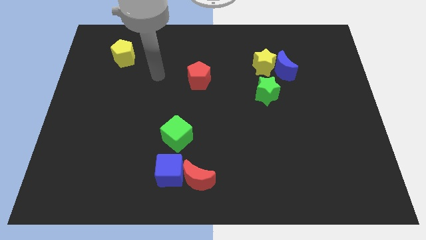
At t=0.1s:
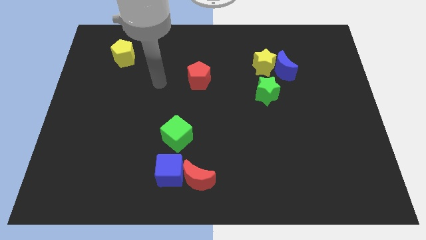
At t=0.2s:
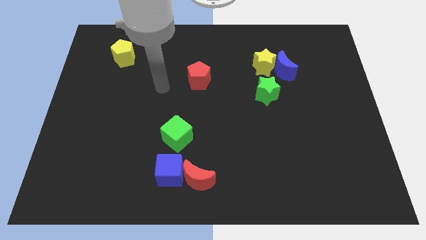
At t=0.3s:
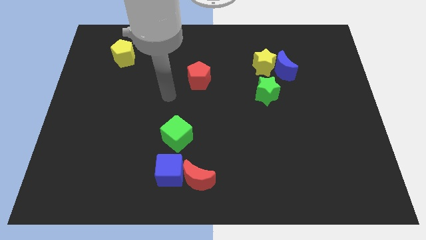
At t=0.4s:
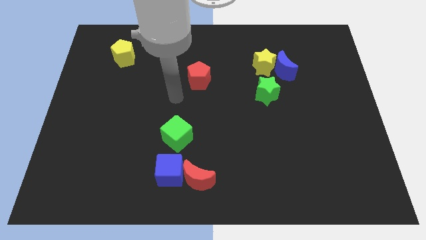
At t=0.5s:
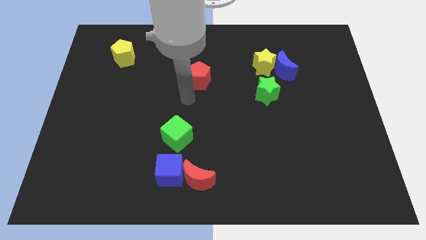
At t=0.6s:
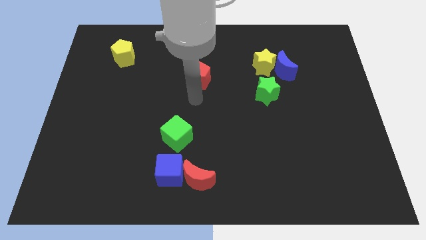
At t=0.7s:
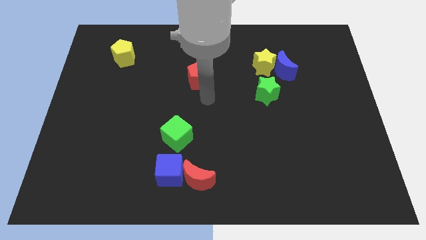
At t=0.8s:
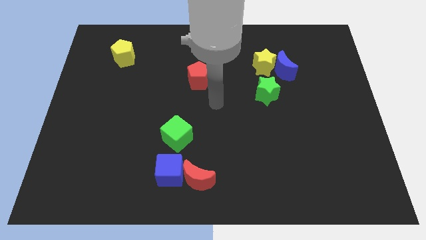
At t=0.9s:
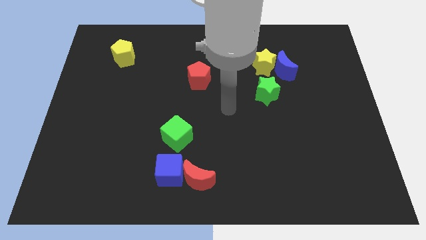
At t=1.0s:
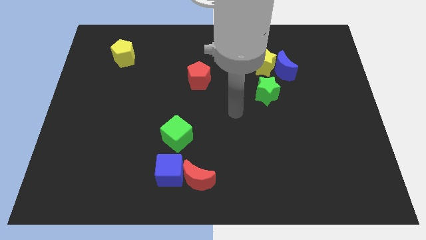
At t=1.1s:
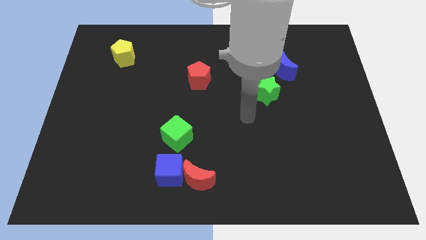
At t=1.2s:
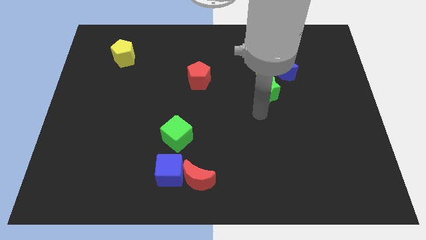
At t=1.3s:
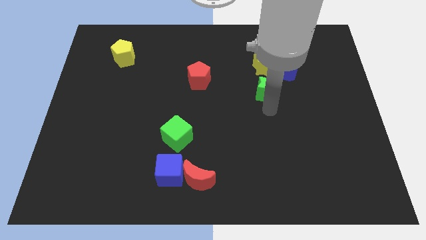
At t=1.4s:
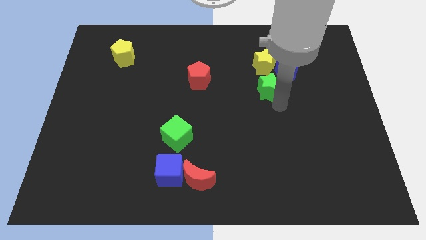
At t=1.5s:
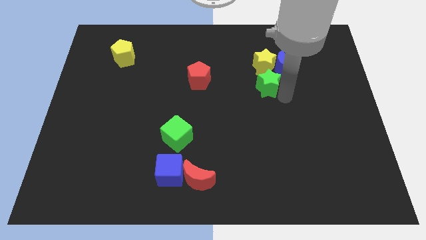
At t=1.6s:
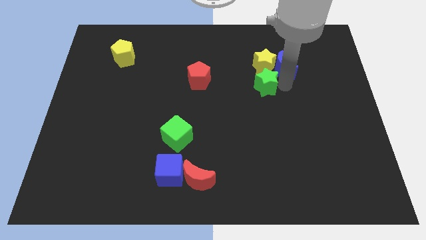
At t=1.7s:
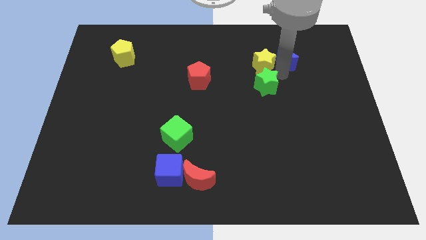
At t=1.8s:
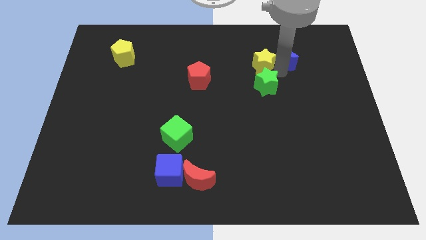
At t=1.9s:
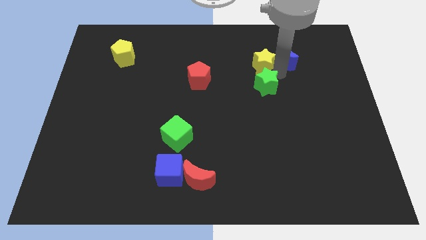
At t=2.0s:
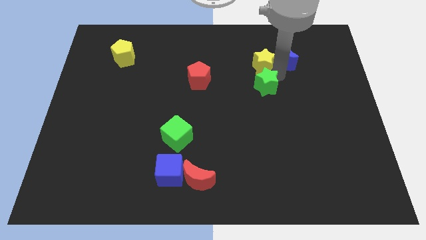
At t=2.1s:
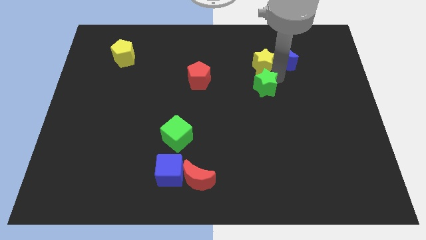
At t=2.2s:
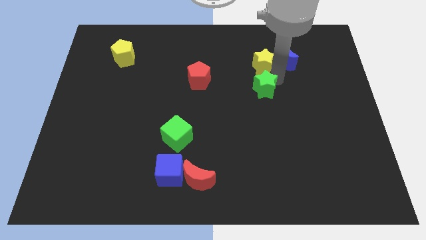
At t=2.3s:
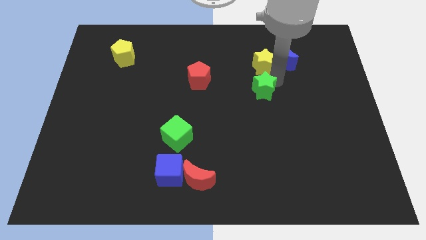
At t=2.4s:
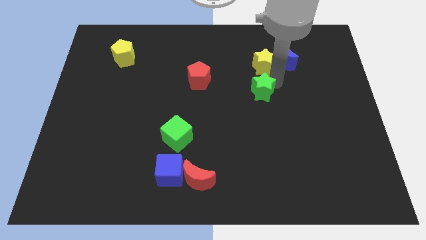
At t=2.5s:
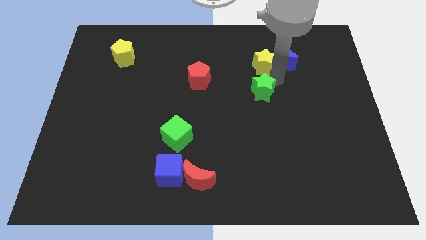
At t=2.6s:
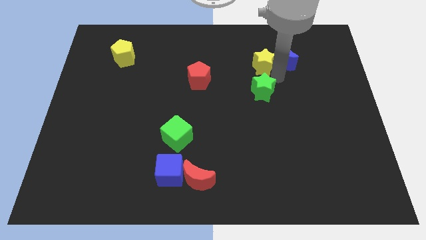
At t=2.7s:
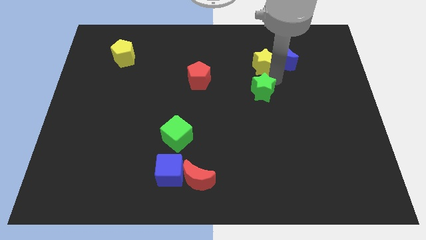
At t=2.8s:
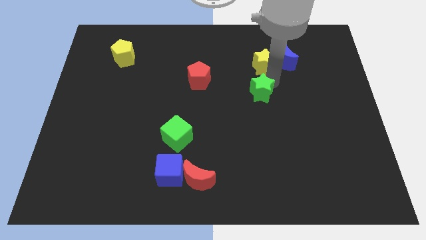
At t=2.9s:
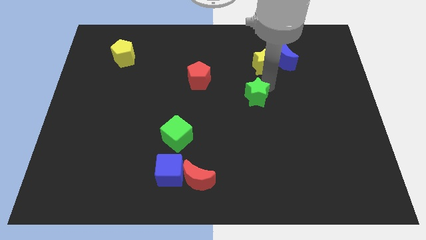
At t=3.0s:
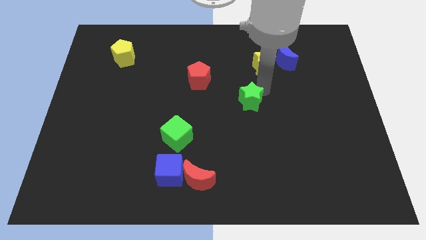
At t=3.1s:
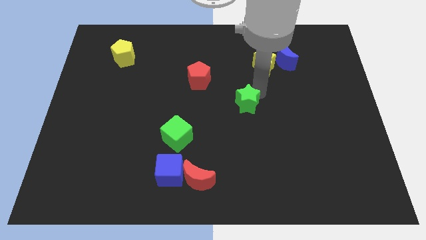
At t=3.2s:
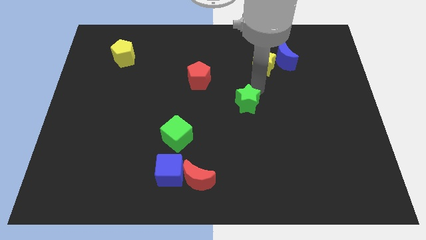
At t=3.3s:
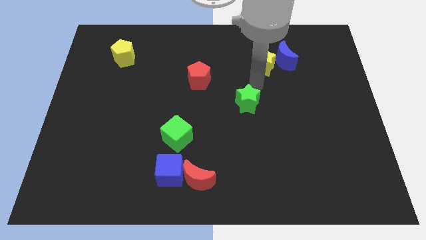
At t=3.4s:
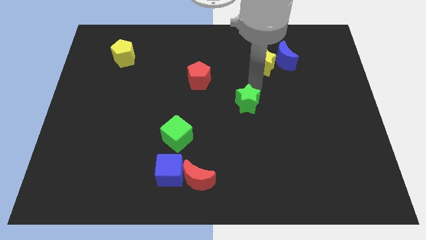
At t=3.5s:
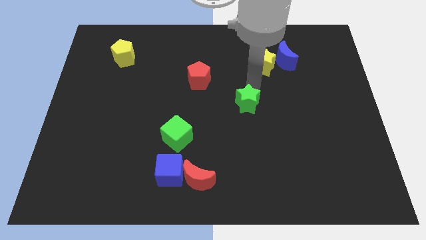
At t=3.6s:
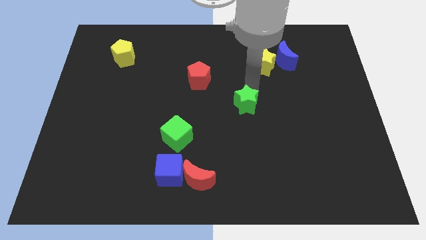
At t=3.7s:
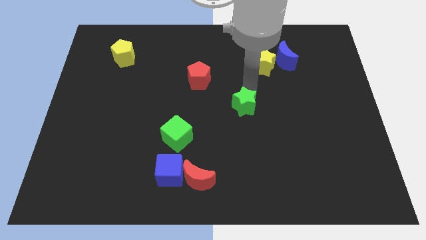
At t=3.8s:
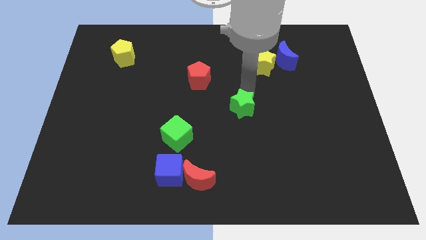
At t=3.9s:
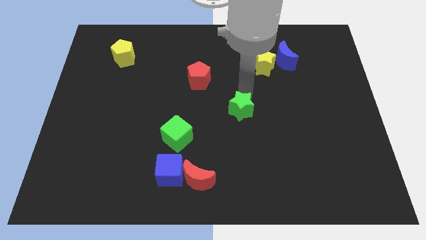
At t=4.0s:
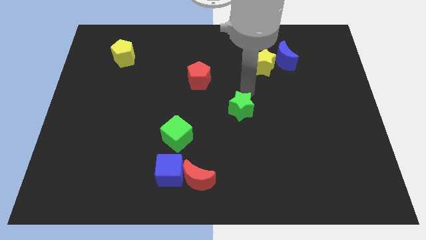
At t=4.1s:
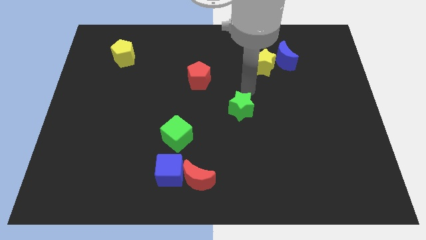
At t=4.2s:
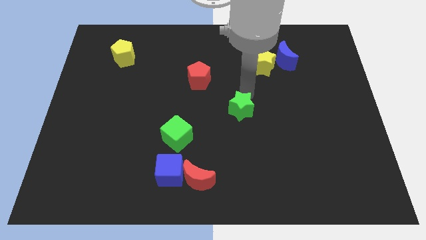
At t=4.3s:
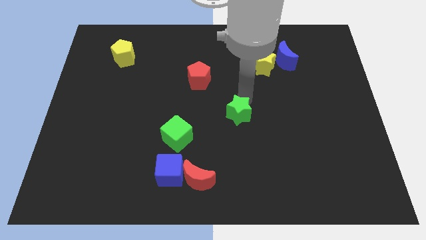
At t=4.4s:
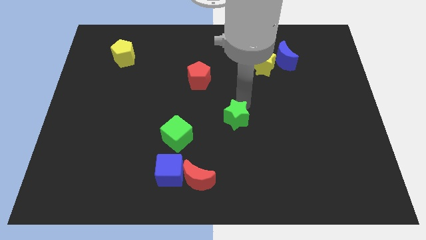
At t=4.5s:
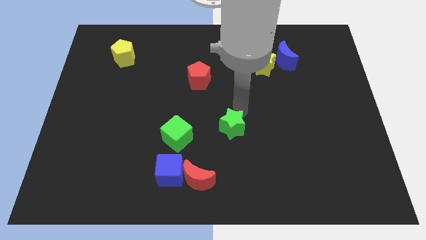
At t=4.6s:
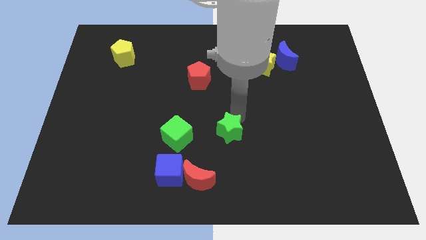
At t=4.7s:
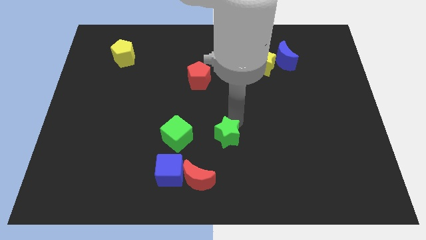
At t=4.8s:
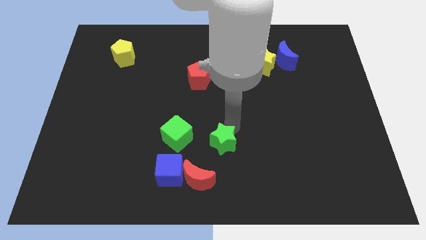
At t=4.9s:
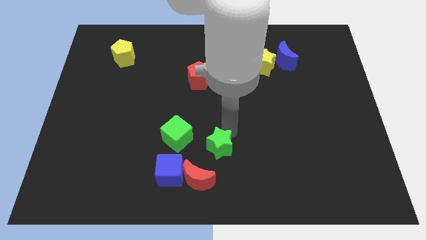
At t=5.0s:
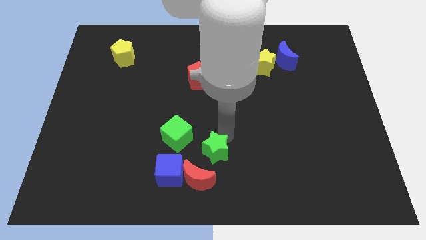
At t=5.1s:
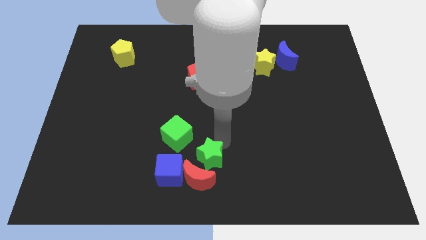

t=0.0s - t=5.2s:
slide the green star towards the red moon

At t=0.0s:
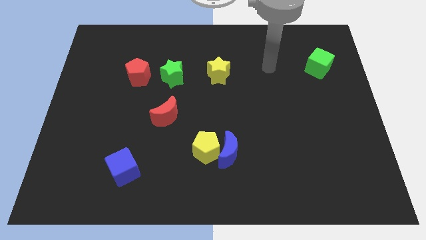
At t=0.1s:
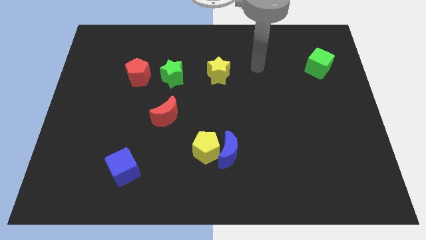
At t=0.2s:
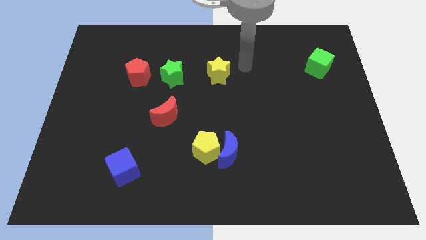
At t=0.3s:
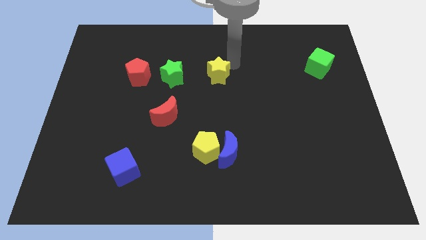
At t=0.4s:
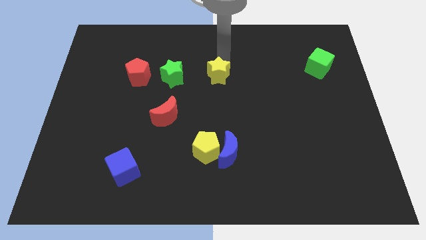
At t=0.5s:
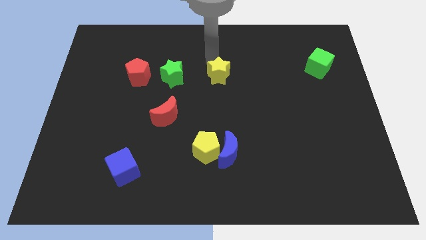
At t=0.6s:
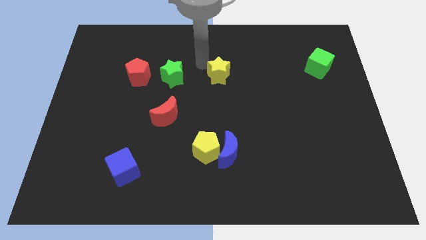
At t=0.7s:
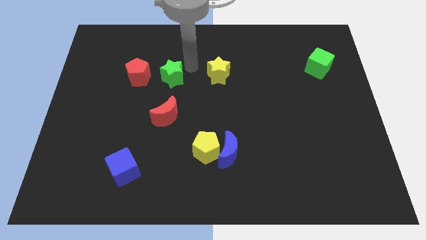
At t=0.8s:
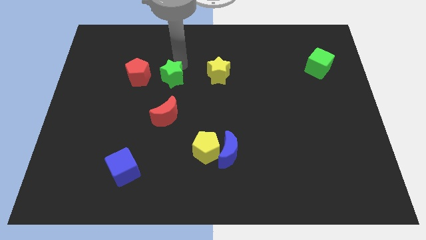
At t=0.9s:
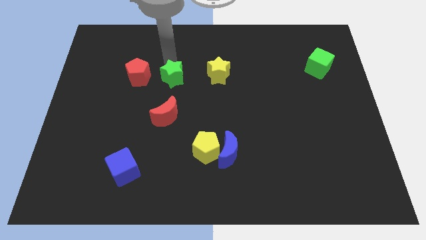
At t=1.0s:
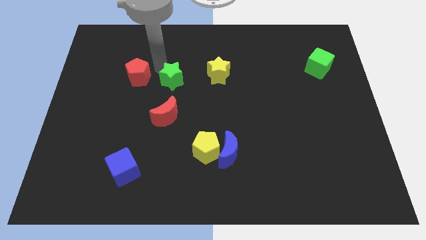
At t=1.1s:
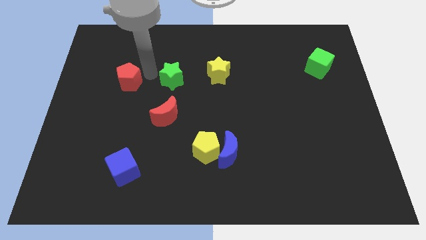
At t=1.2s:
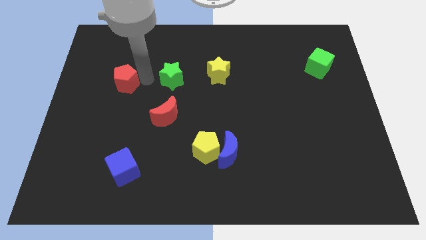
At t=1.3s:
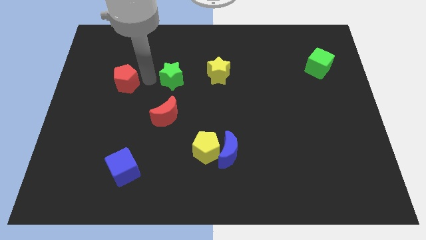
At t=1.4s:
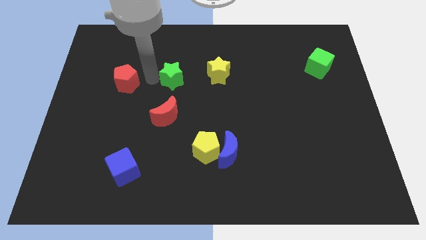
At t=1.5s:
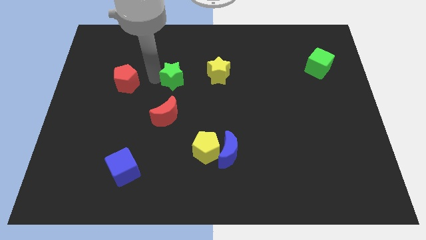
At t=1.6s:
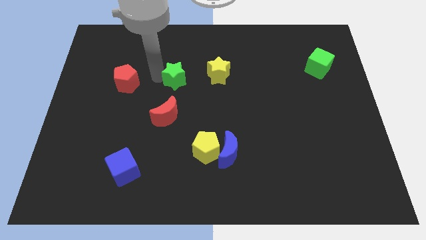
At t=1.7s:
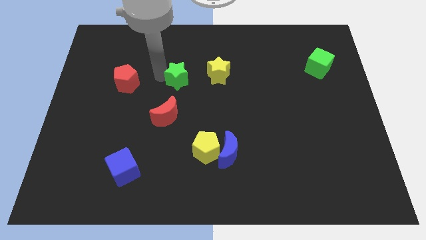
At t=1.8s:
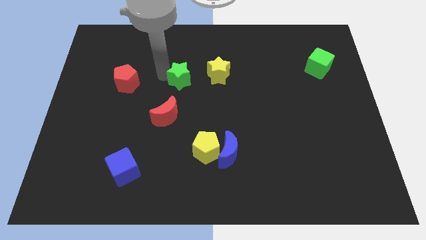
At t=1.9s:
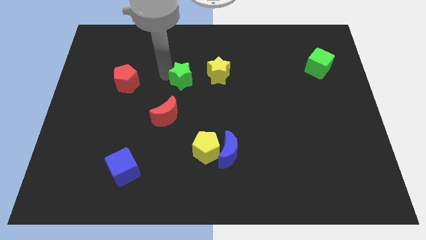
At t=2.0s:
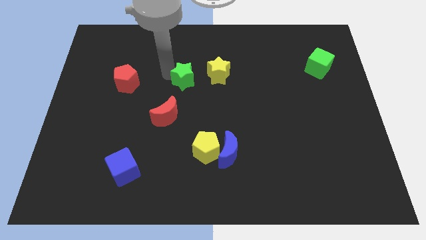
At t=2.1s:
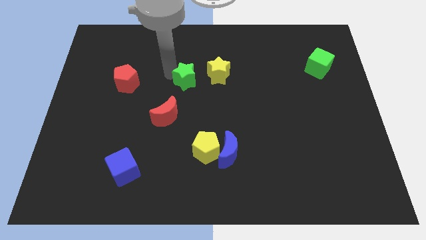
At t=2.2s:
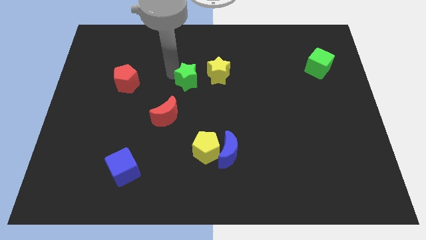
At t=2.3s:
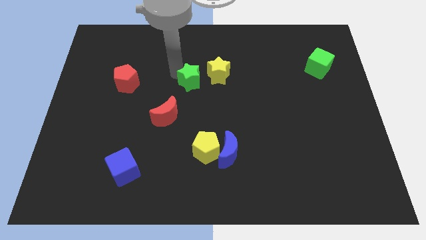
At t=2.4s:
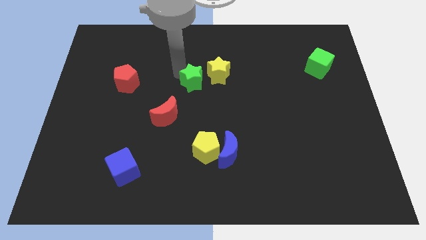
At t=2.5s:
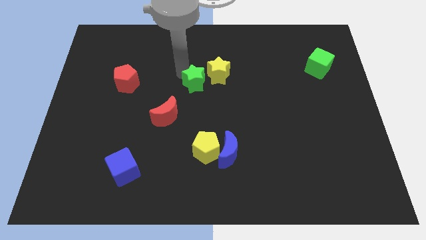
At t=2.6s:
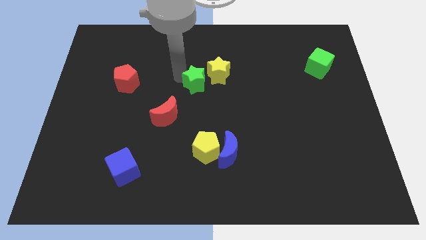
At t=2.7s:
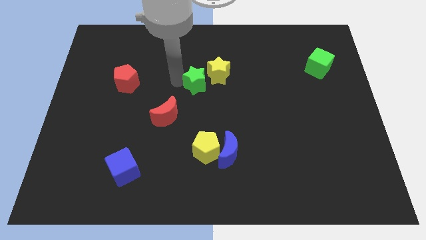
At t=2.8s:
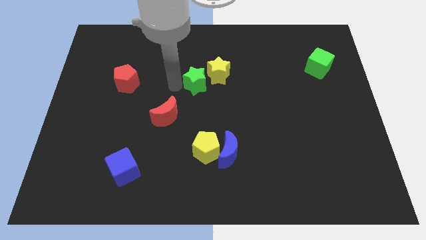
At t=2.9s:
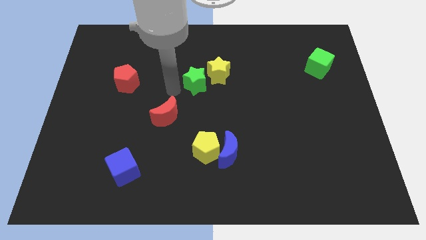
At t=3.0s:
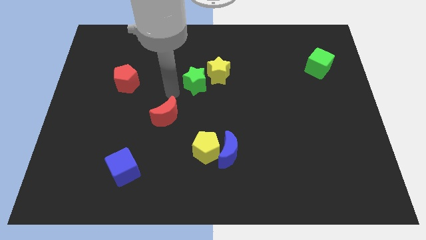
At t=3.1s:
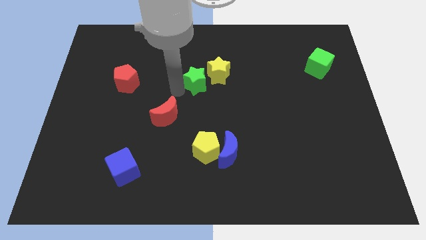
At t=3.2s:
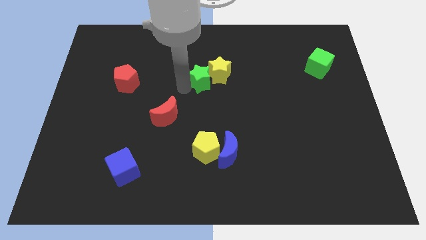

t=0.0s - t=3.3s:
put the green star to the yellow star
